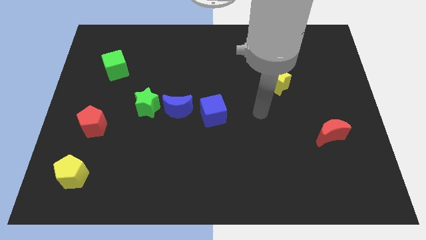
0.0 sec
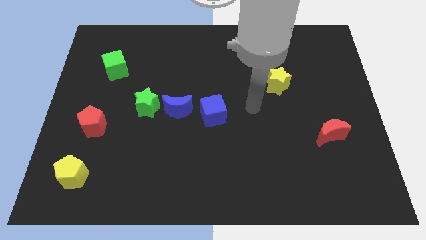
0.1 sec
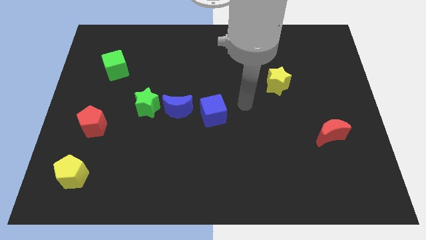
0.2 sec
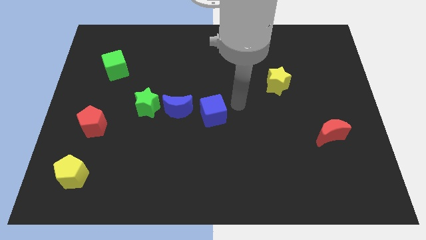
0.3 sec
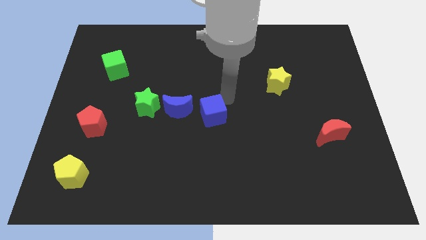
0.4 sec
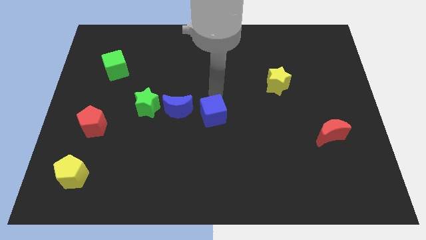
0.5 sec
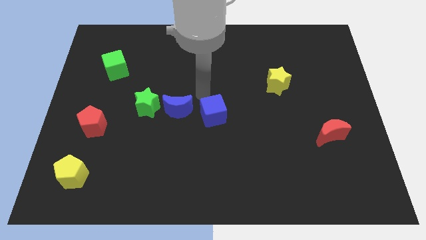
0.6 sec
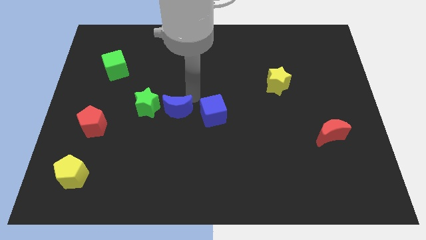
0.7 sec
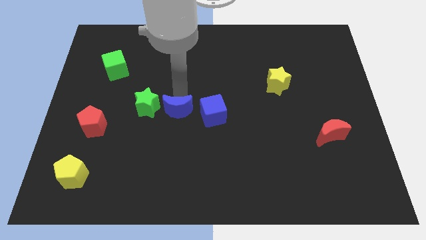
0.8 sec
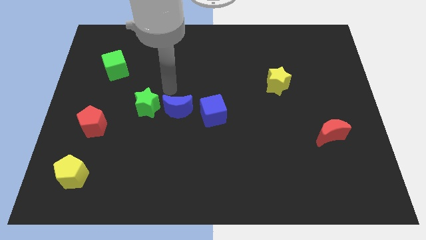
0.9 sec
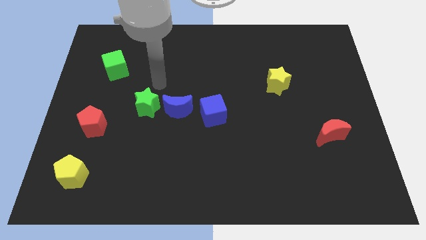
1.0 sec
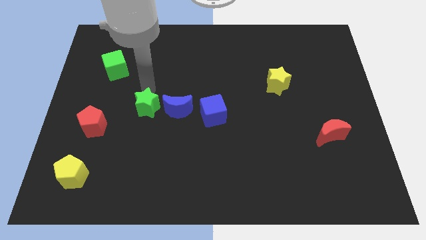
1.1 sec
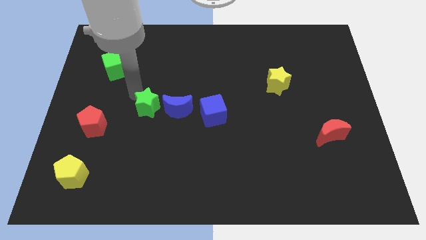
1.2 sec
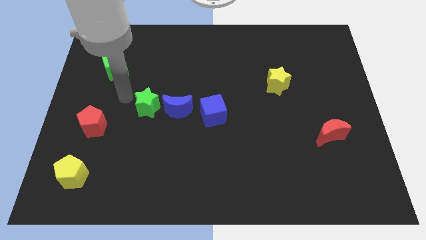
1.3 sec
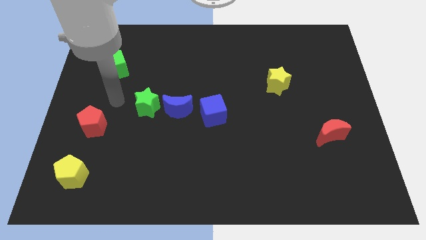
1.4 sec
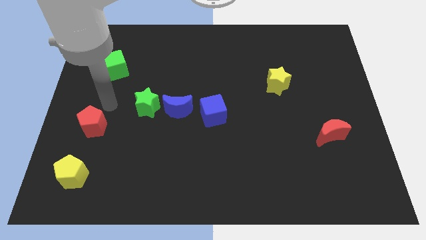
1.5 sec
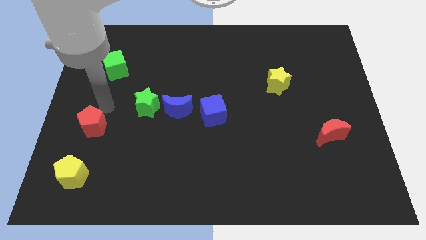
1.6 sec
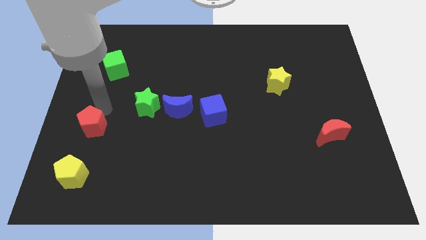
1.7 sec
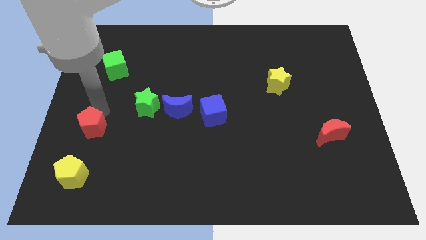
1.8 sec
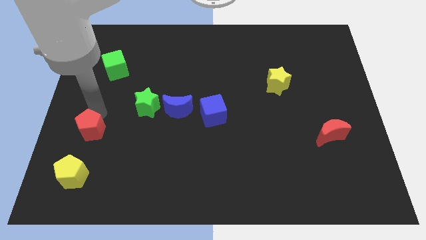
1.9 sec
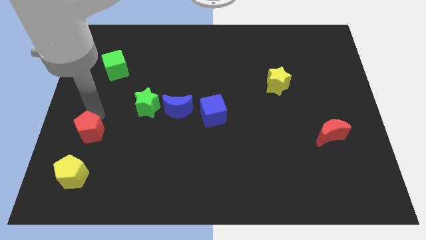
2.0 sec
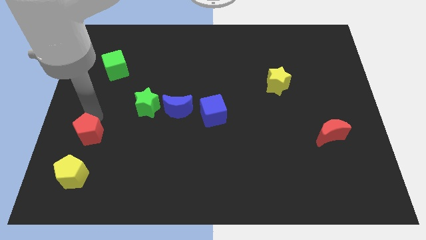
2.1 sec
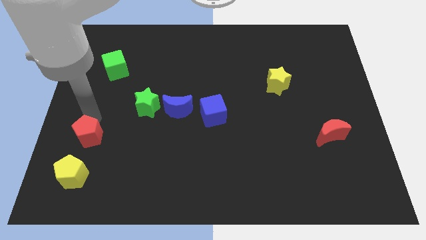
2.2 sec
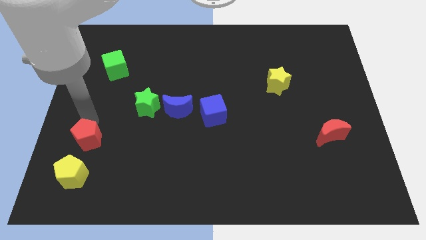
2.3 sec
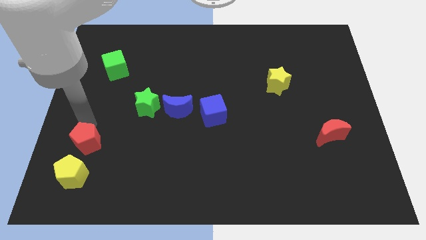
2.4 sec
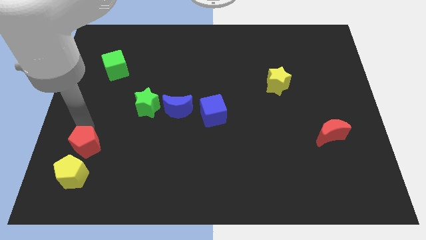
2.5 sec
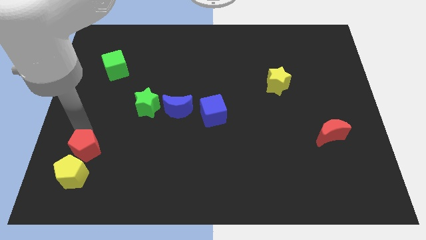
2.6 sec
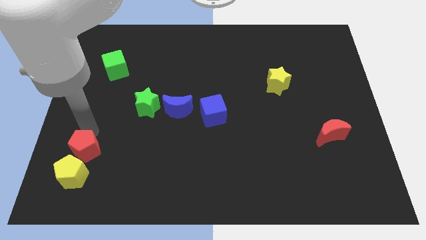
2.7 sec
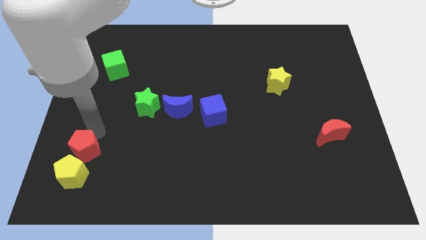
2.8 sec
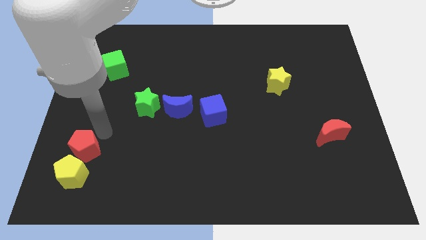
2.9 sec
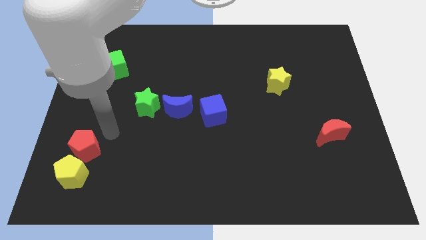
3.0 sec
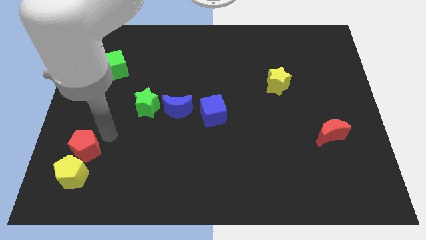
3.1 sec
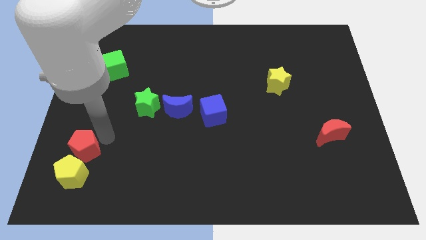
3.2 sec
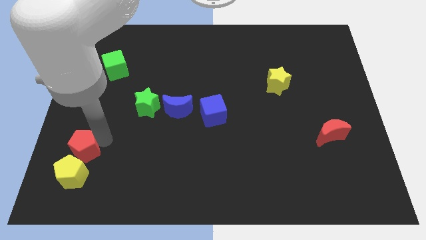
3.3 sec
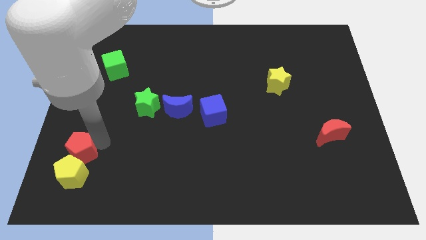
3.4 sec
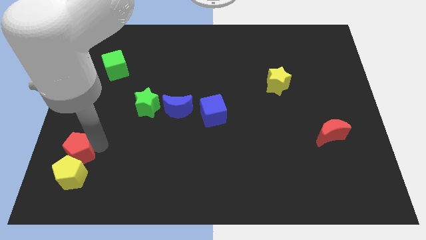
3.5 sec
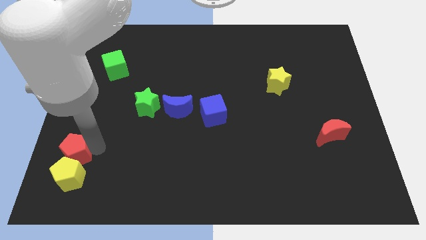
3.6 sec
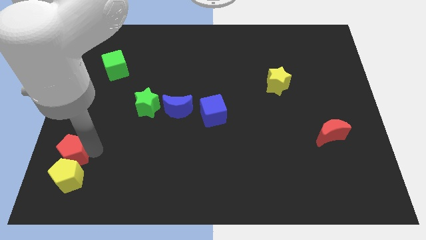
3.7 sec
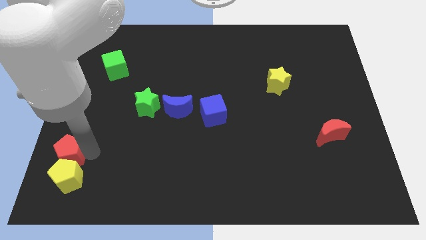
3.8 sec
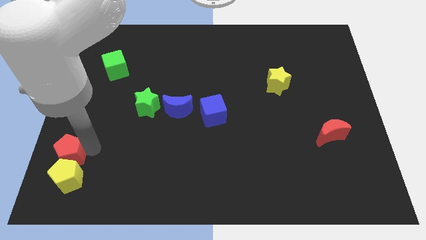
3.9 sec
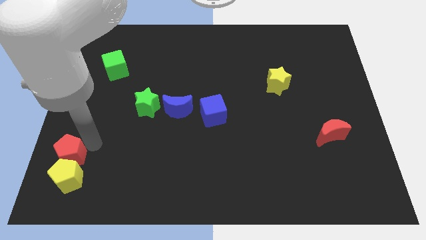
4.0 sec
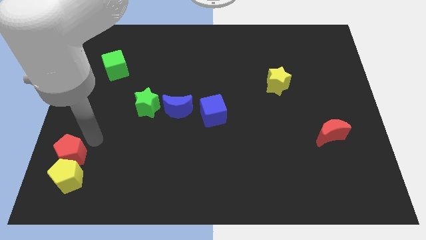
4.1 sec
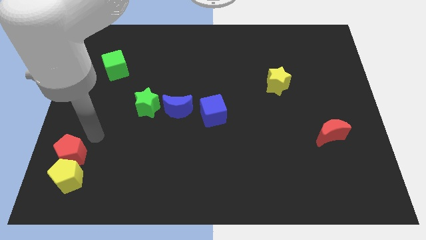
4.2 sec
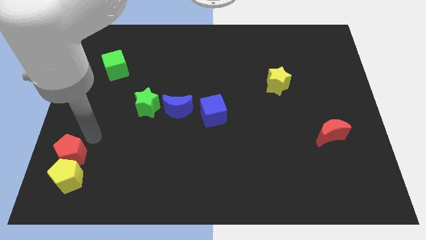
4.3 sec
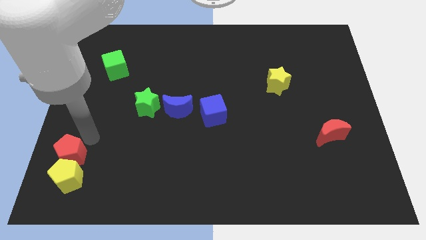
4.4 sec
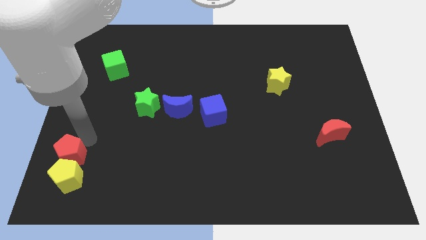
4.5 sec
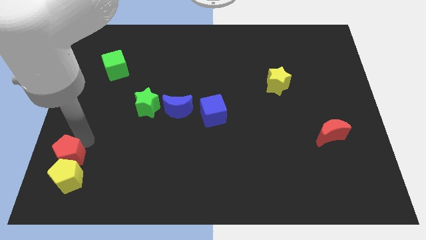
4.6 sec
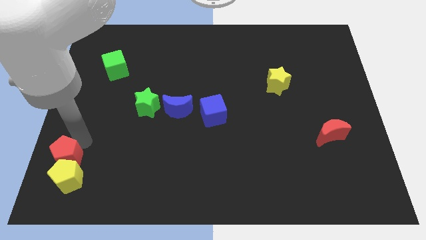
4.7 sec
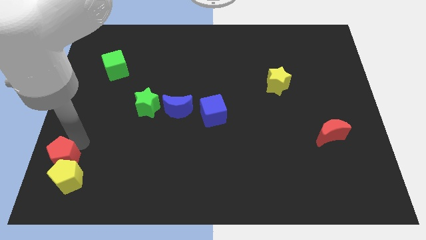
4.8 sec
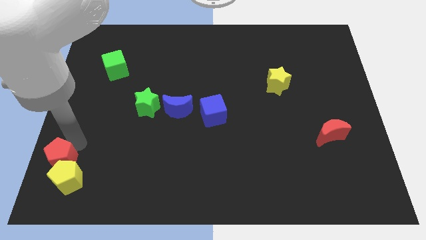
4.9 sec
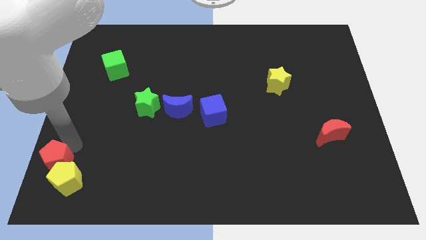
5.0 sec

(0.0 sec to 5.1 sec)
slide the red pentagon to the bottom left

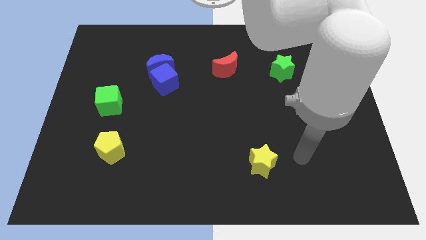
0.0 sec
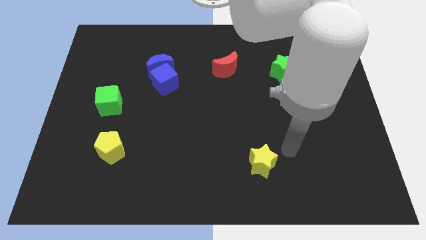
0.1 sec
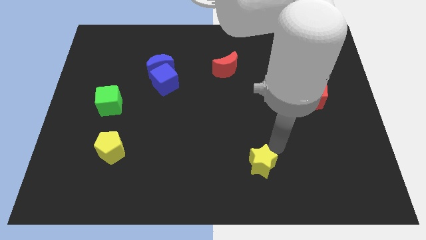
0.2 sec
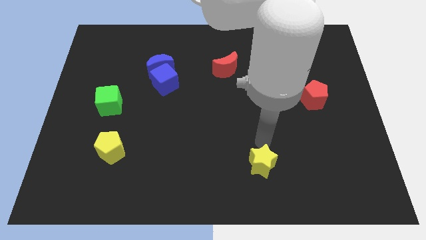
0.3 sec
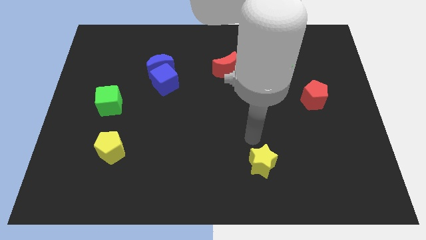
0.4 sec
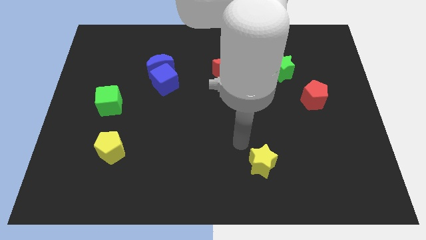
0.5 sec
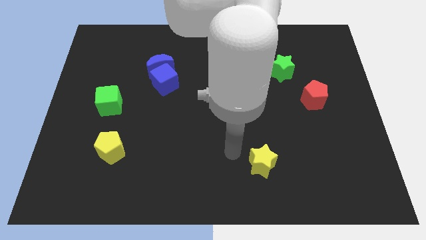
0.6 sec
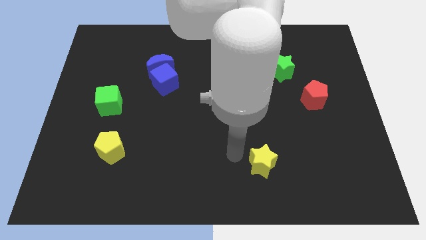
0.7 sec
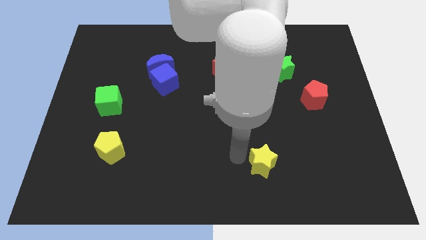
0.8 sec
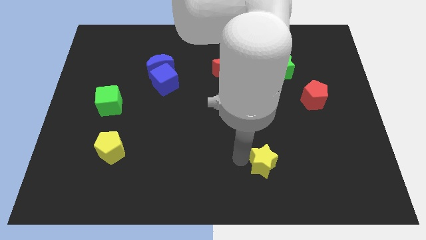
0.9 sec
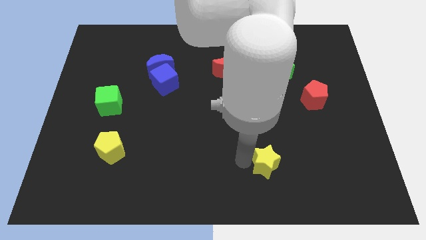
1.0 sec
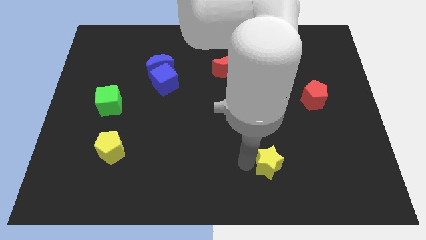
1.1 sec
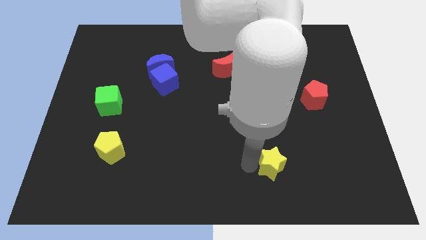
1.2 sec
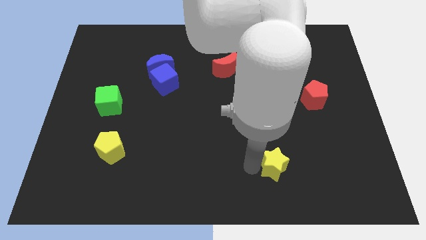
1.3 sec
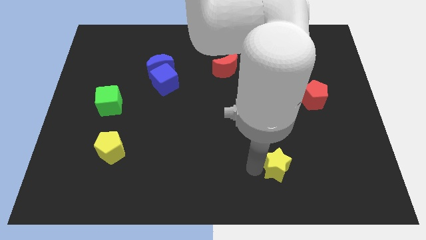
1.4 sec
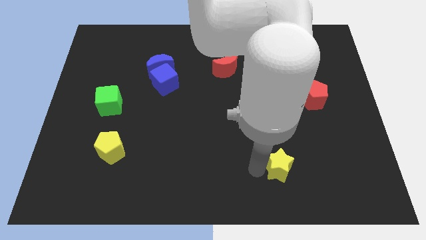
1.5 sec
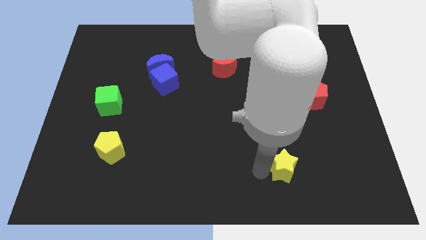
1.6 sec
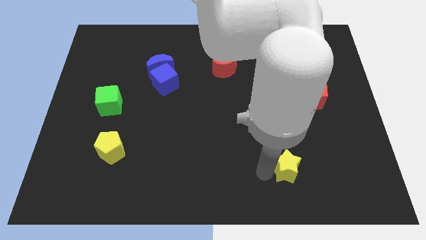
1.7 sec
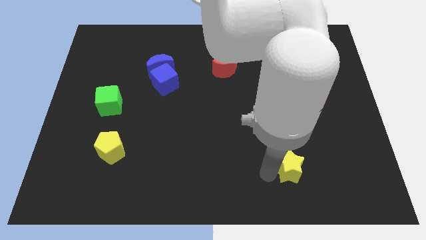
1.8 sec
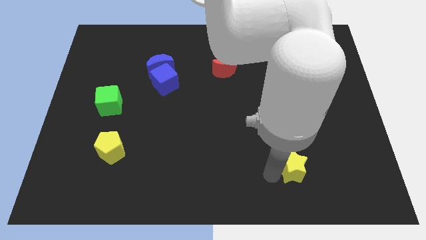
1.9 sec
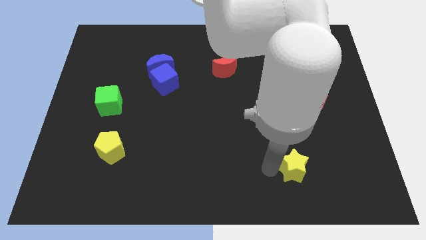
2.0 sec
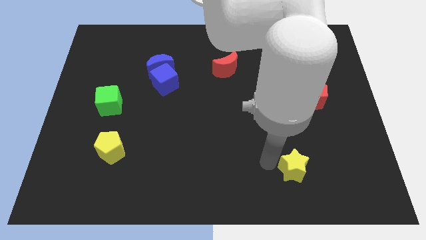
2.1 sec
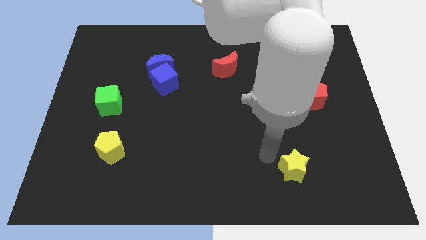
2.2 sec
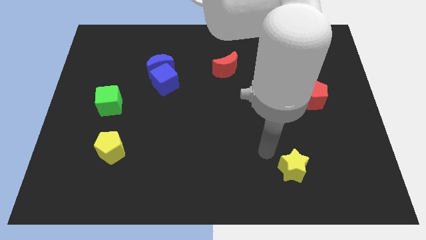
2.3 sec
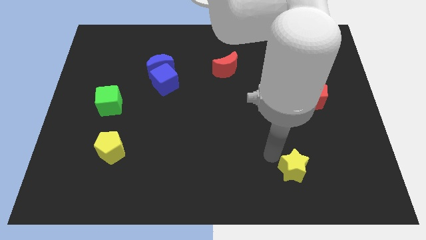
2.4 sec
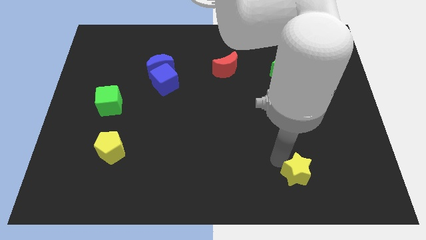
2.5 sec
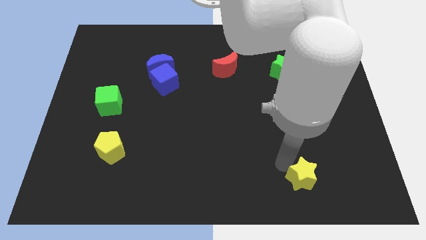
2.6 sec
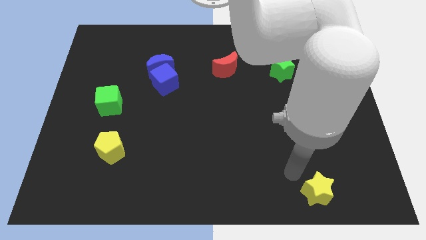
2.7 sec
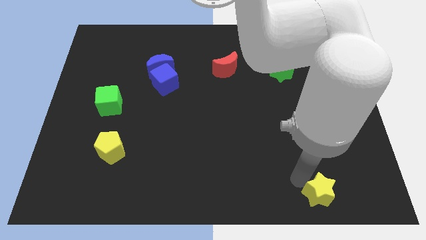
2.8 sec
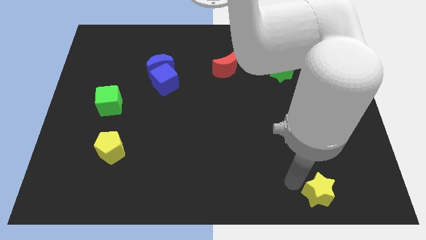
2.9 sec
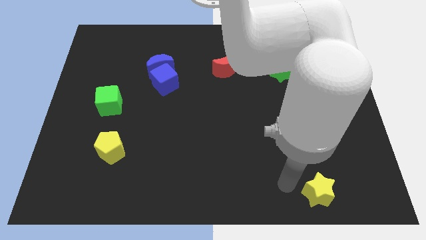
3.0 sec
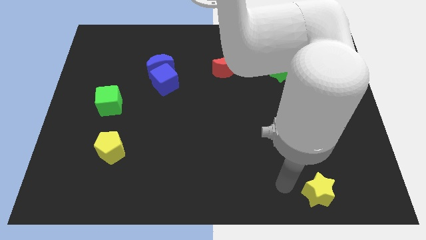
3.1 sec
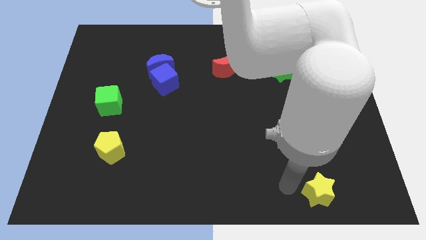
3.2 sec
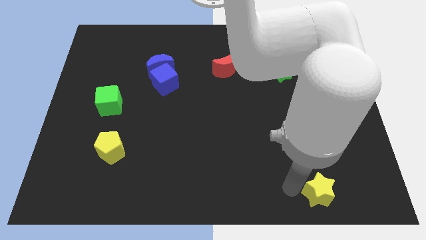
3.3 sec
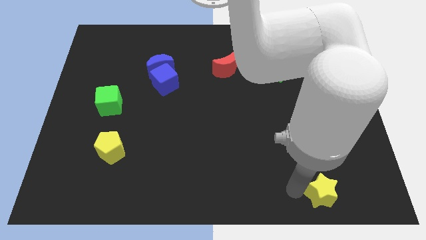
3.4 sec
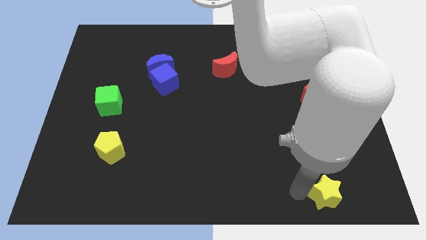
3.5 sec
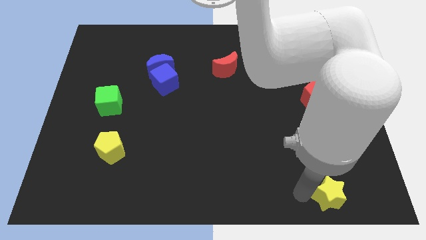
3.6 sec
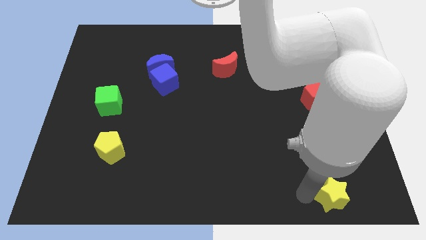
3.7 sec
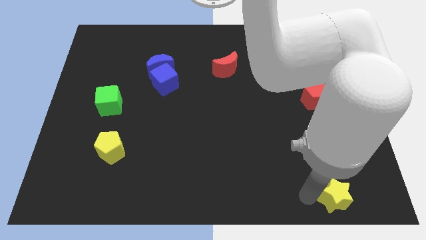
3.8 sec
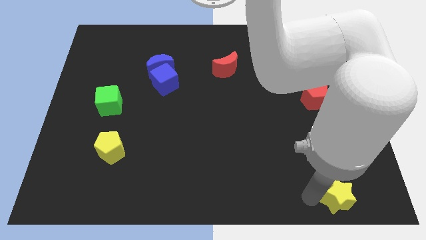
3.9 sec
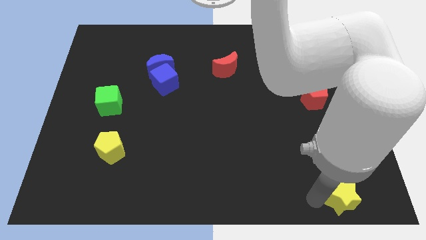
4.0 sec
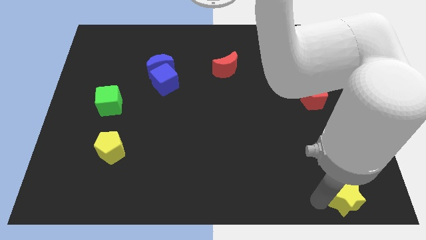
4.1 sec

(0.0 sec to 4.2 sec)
push the yellow star to the bottom right corner
